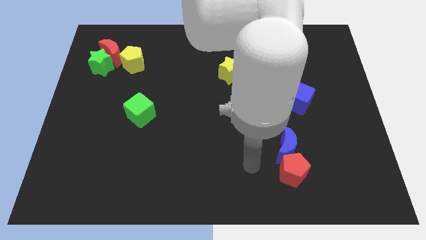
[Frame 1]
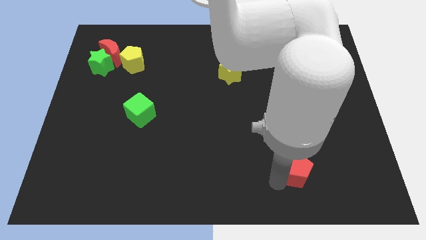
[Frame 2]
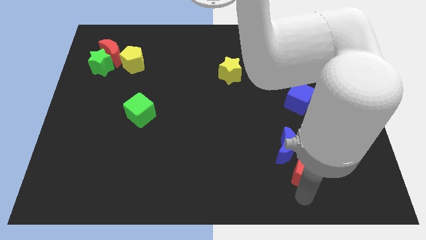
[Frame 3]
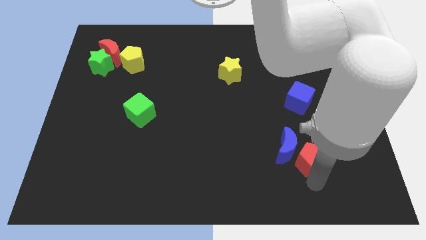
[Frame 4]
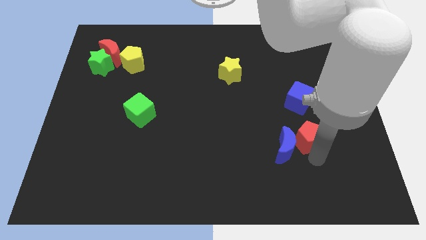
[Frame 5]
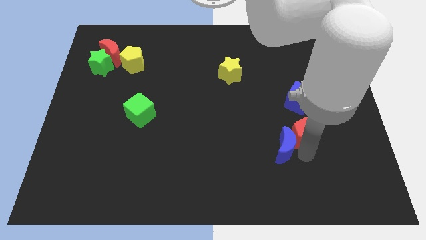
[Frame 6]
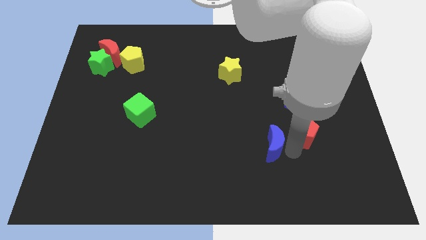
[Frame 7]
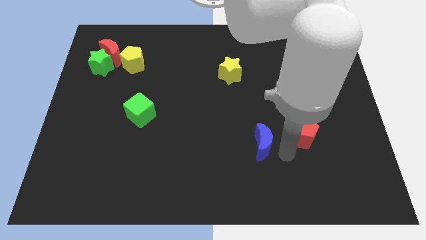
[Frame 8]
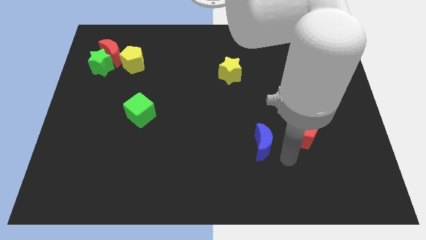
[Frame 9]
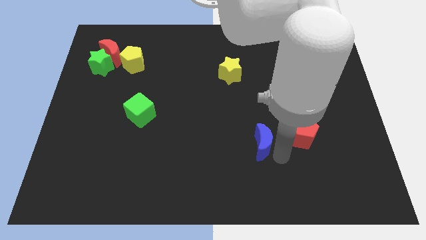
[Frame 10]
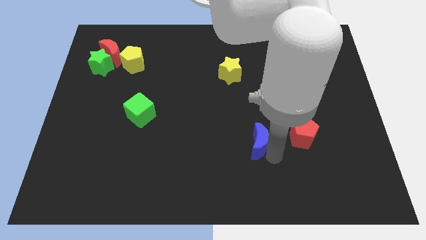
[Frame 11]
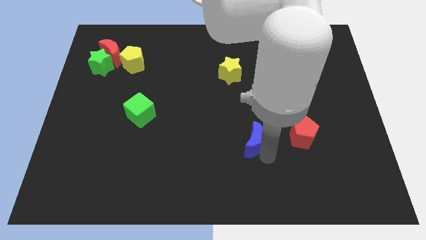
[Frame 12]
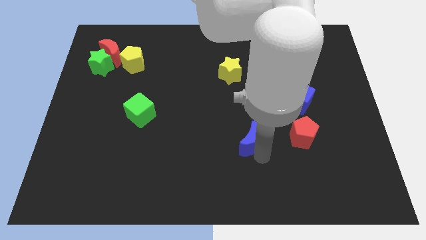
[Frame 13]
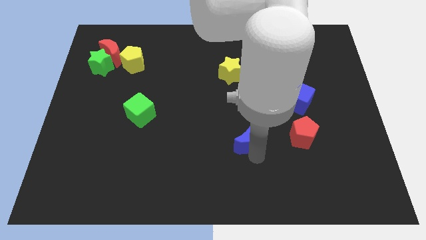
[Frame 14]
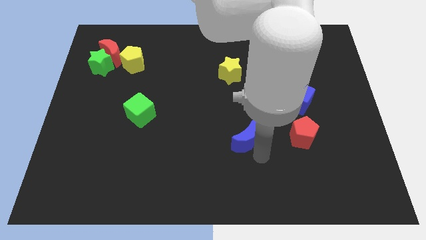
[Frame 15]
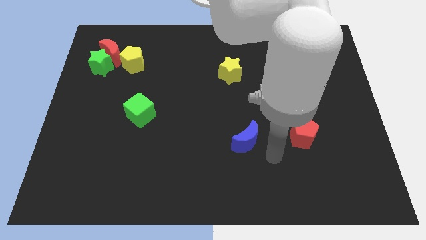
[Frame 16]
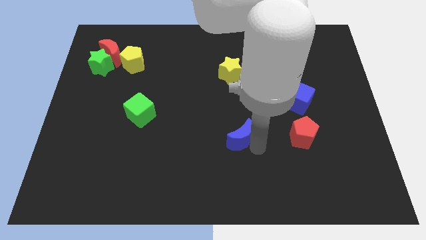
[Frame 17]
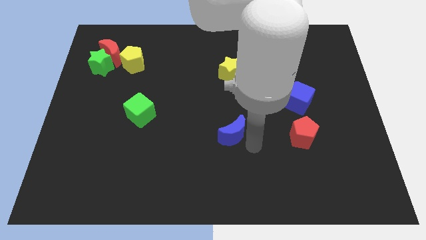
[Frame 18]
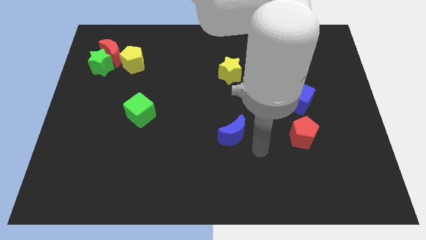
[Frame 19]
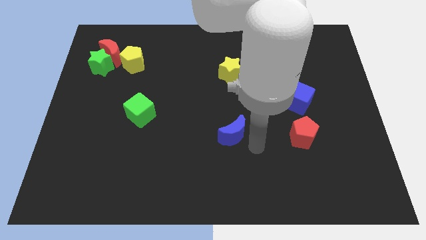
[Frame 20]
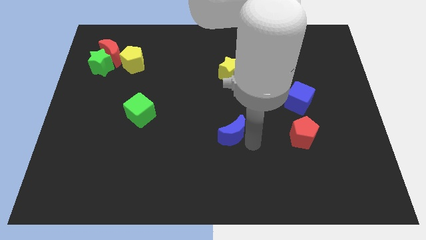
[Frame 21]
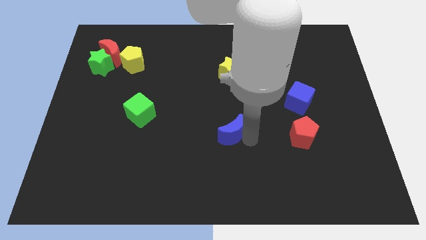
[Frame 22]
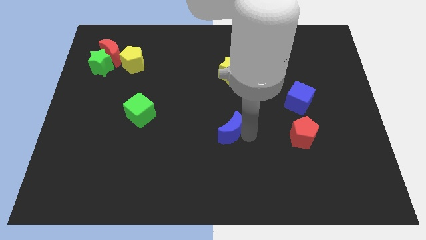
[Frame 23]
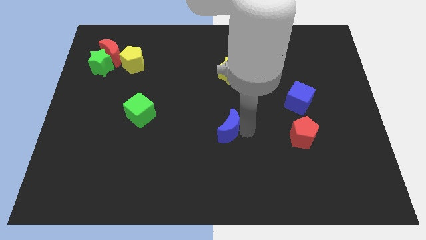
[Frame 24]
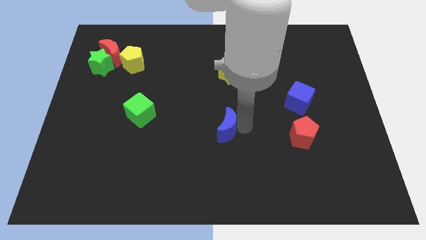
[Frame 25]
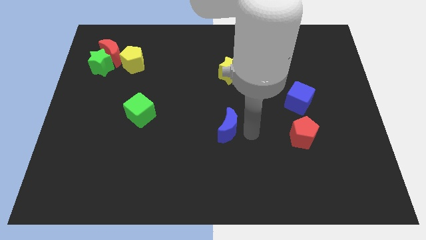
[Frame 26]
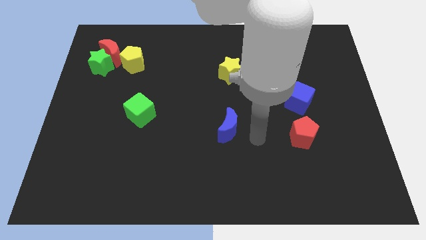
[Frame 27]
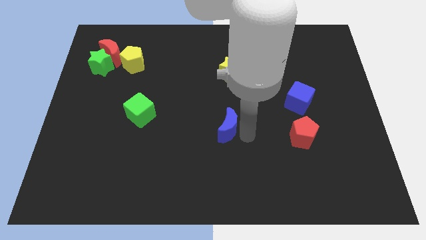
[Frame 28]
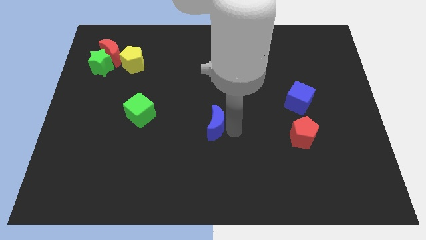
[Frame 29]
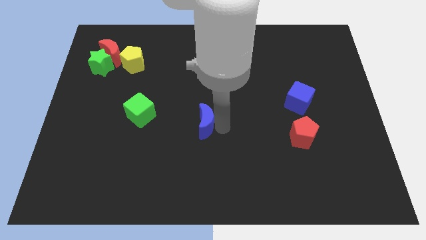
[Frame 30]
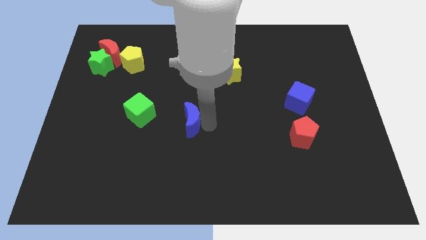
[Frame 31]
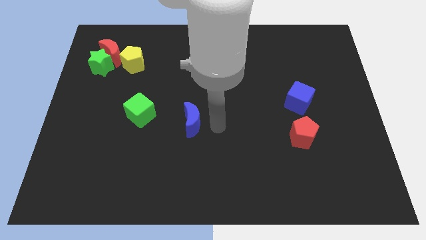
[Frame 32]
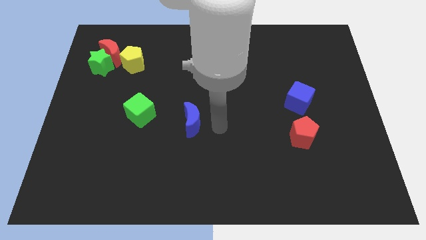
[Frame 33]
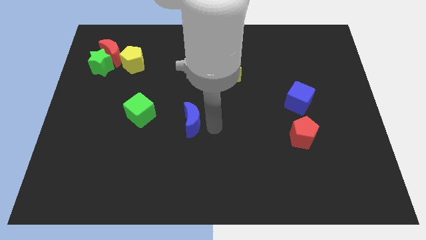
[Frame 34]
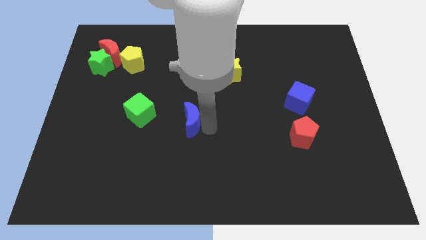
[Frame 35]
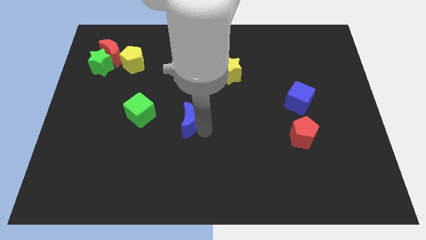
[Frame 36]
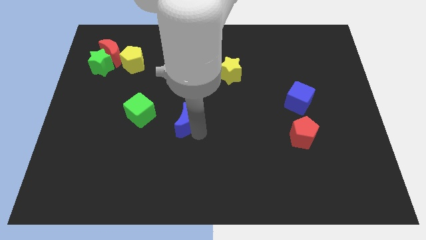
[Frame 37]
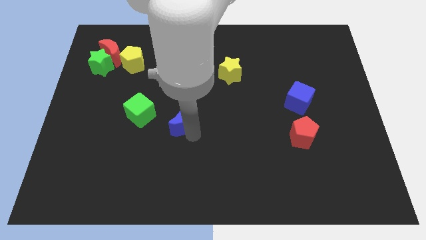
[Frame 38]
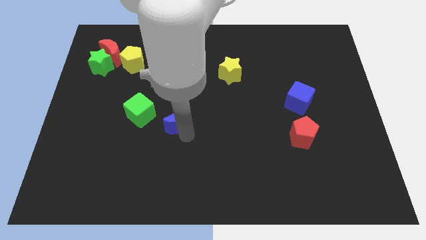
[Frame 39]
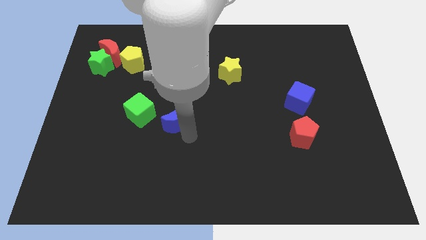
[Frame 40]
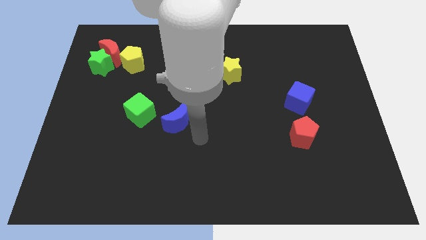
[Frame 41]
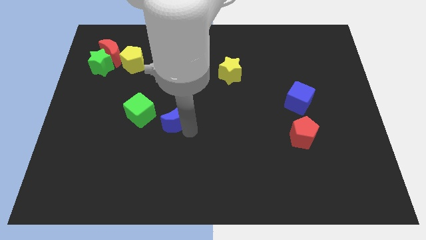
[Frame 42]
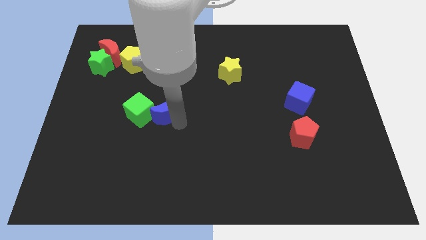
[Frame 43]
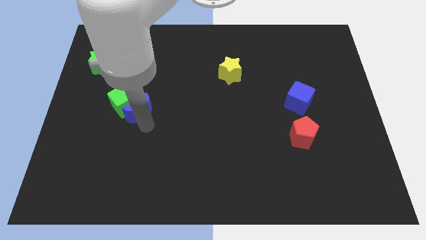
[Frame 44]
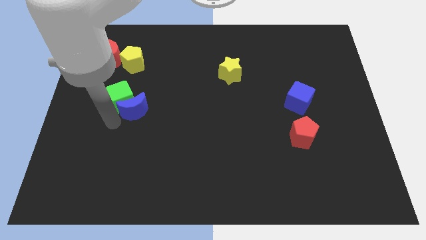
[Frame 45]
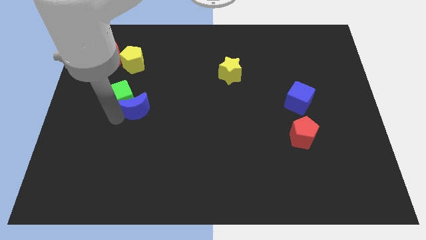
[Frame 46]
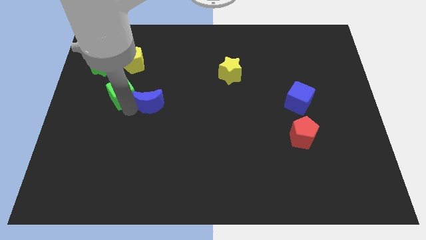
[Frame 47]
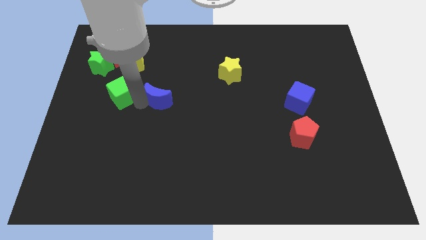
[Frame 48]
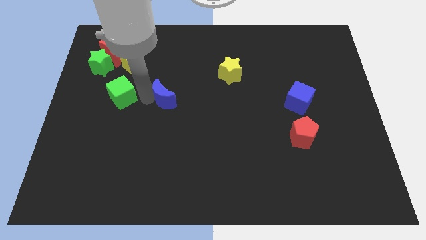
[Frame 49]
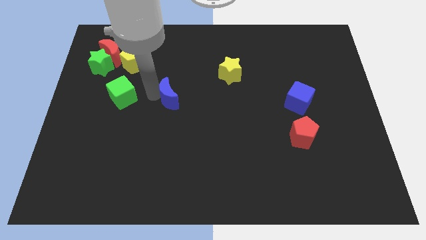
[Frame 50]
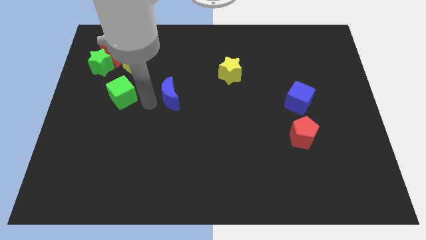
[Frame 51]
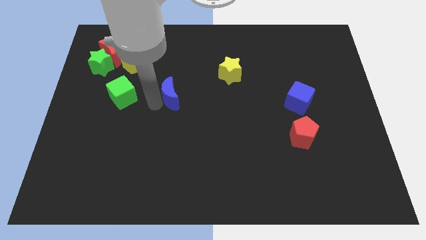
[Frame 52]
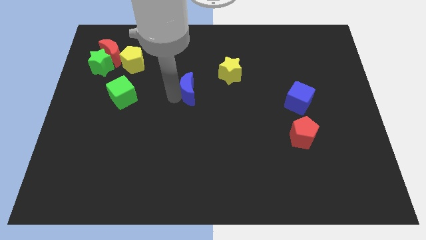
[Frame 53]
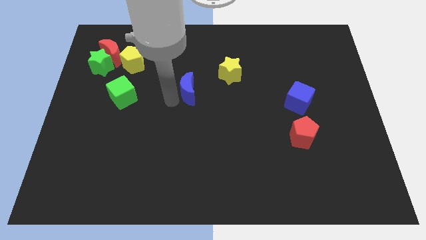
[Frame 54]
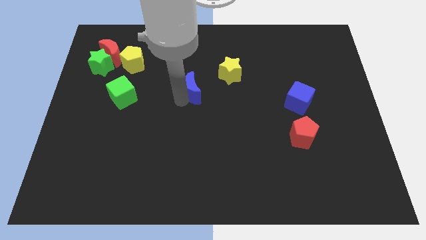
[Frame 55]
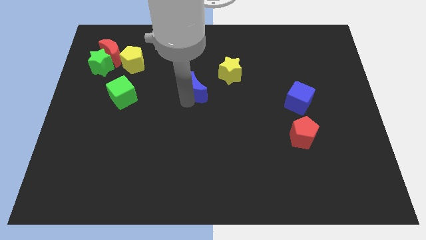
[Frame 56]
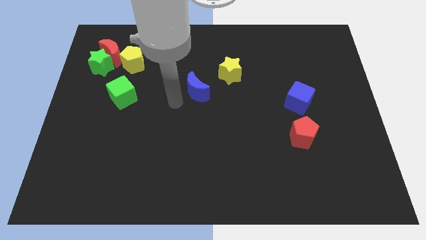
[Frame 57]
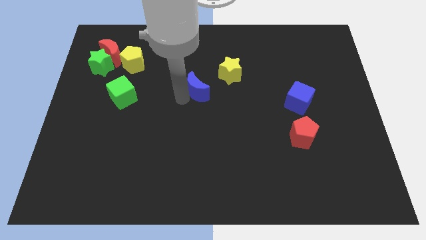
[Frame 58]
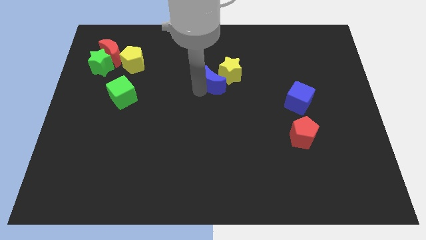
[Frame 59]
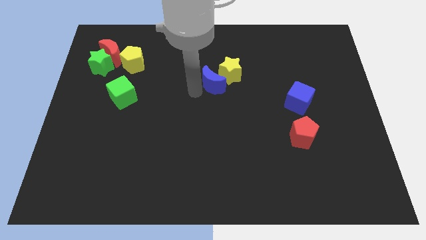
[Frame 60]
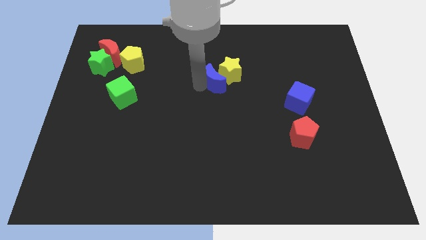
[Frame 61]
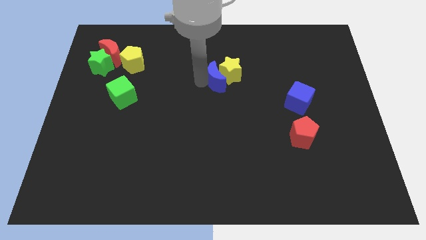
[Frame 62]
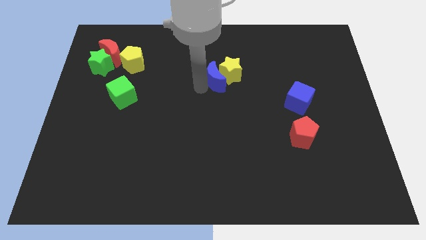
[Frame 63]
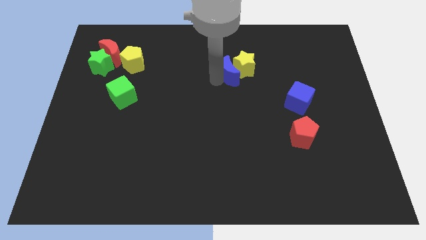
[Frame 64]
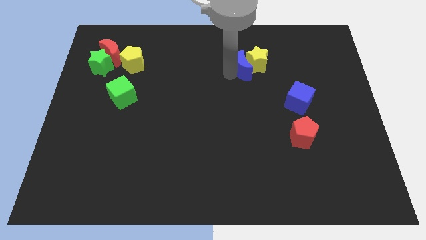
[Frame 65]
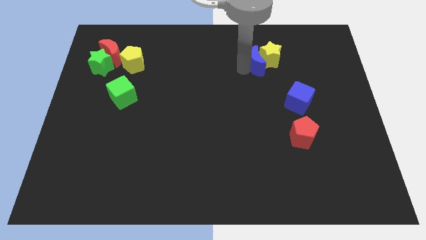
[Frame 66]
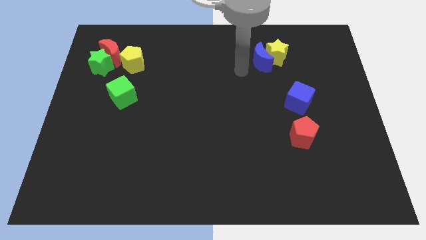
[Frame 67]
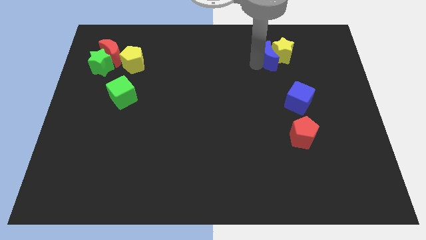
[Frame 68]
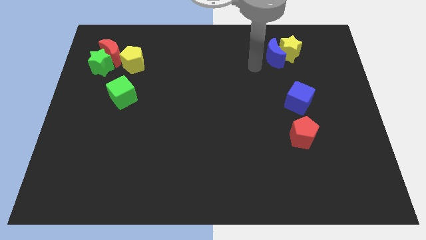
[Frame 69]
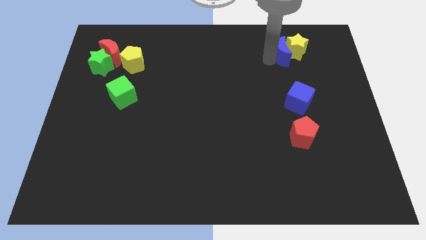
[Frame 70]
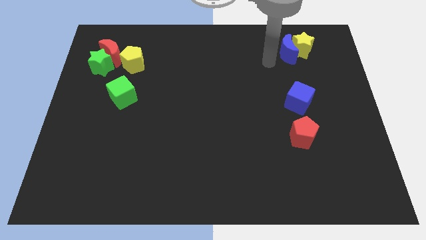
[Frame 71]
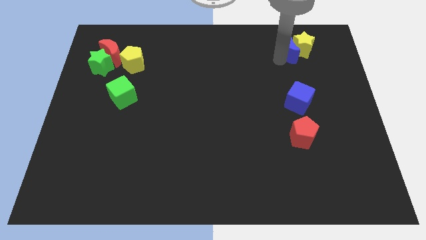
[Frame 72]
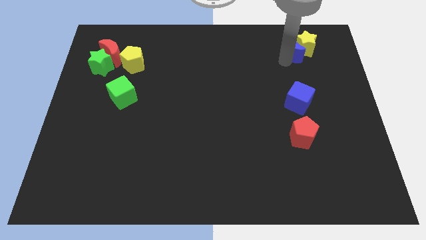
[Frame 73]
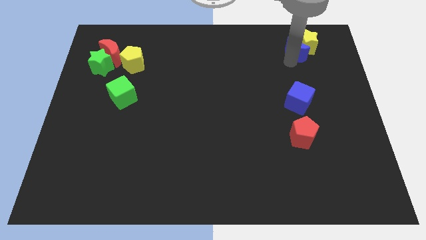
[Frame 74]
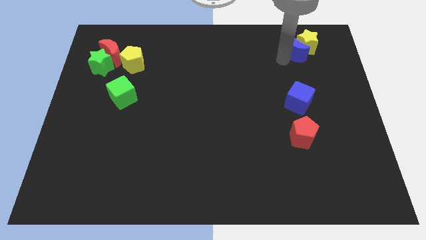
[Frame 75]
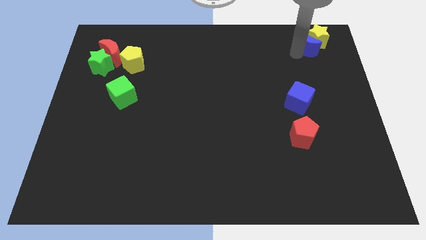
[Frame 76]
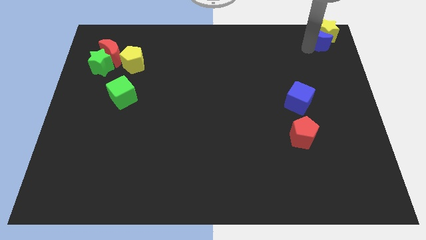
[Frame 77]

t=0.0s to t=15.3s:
put the blue moon to the top right of the board
